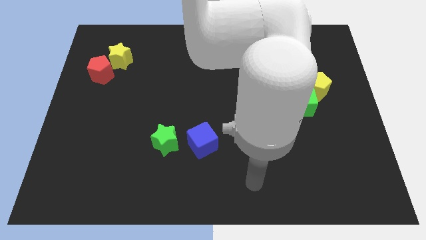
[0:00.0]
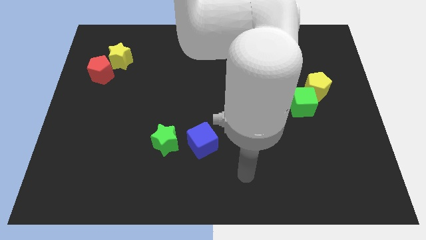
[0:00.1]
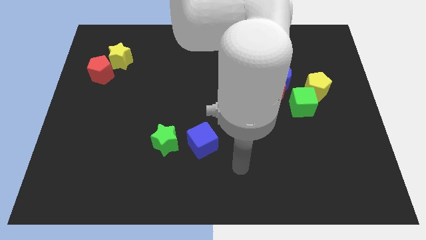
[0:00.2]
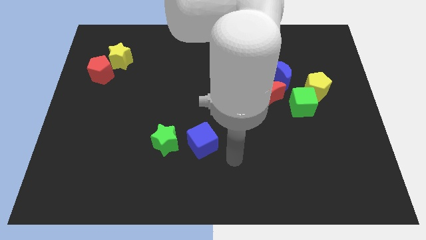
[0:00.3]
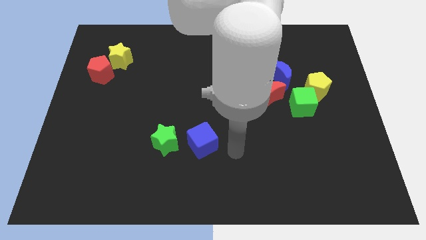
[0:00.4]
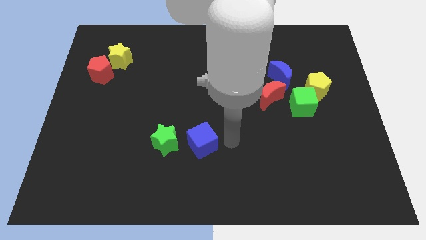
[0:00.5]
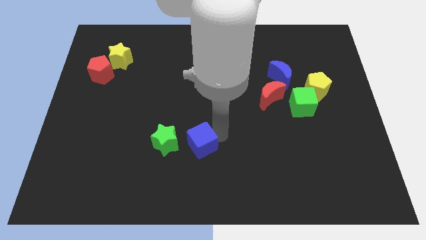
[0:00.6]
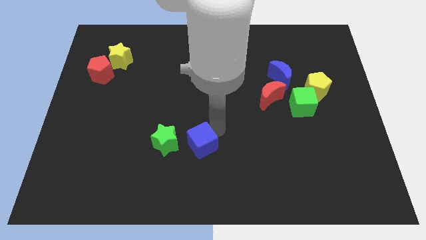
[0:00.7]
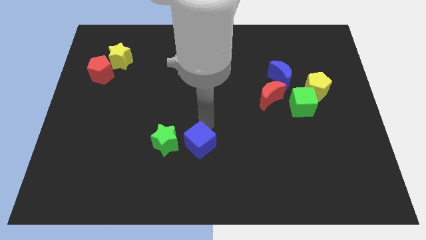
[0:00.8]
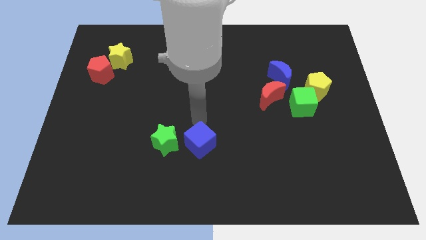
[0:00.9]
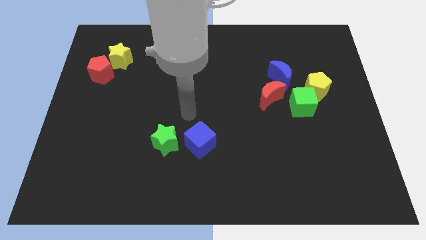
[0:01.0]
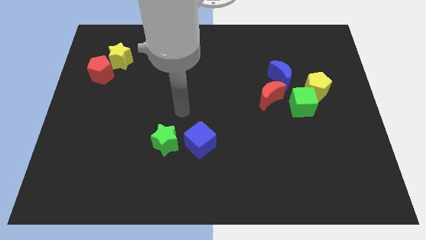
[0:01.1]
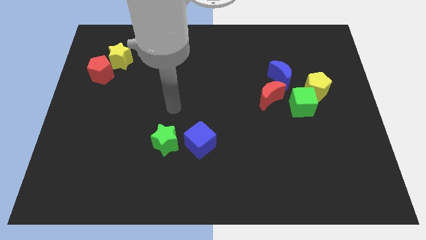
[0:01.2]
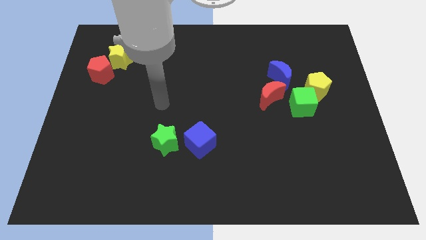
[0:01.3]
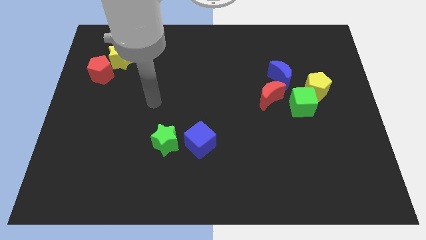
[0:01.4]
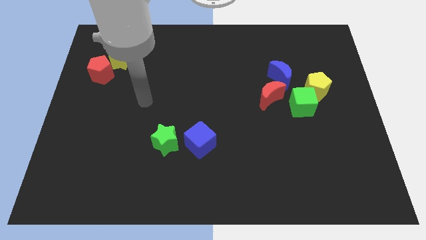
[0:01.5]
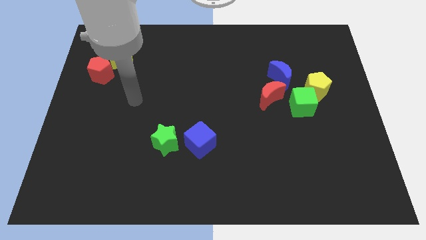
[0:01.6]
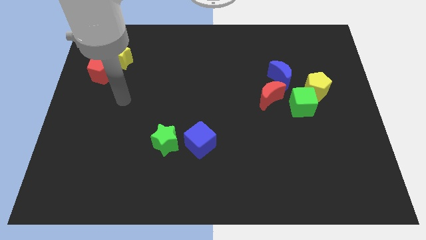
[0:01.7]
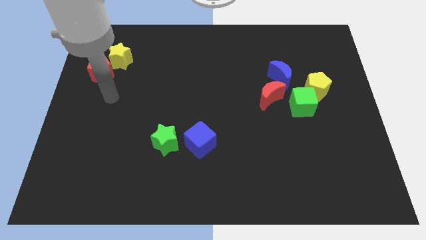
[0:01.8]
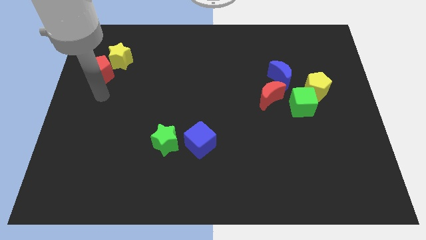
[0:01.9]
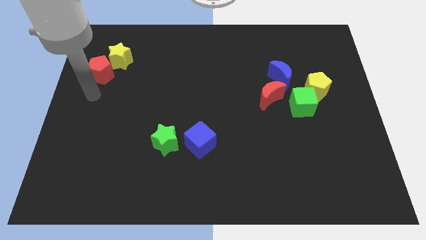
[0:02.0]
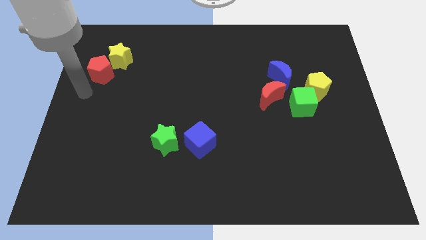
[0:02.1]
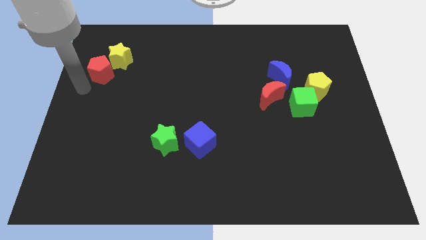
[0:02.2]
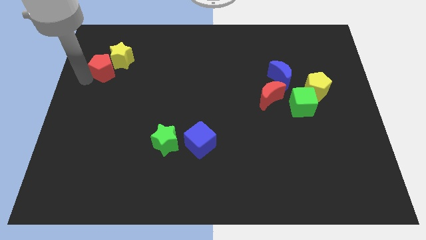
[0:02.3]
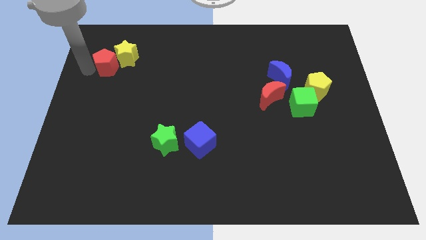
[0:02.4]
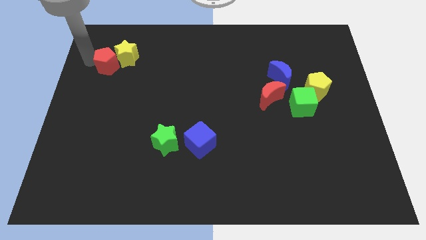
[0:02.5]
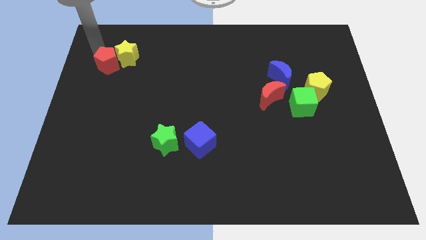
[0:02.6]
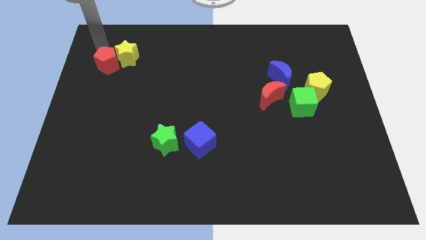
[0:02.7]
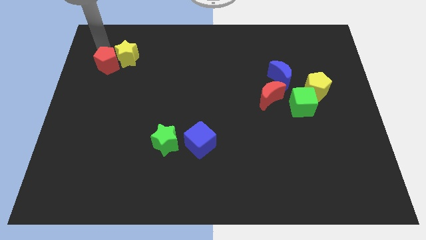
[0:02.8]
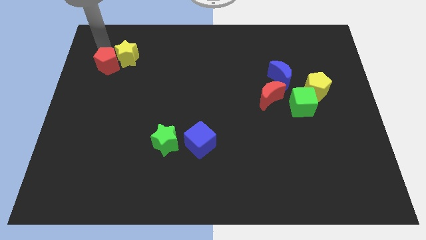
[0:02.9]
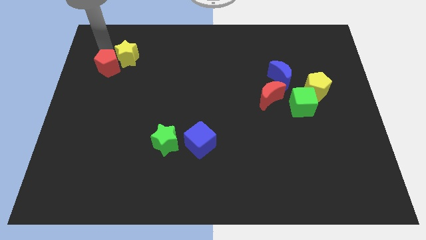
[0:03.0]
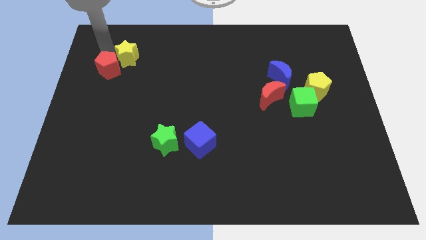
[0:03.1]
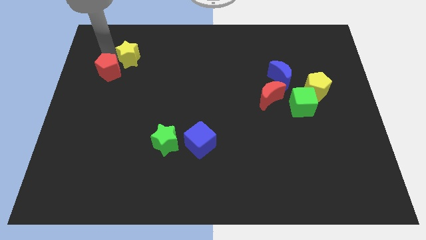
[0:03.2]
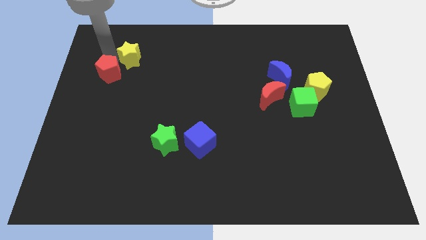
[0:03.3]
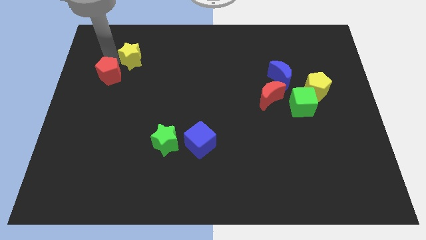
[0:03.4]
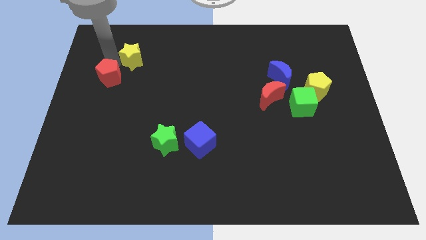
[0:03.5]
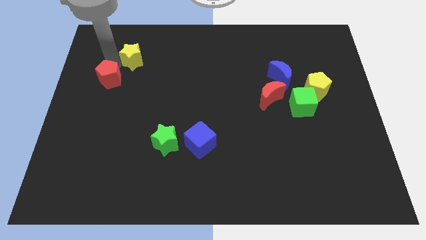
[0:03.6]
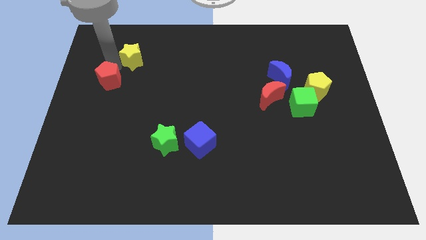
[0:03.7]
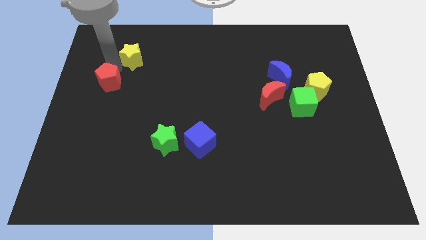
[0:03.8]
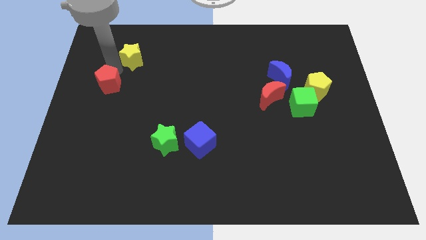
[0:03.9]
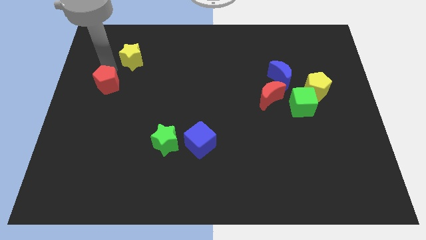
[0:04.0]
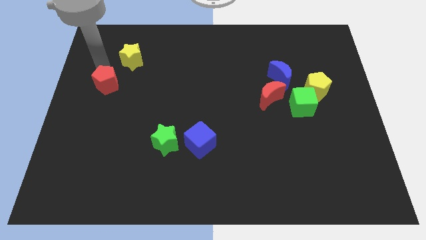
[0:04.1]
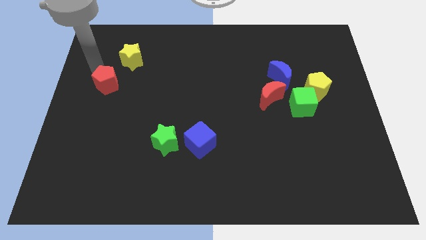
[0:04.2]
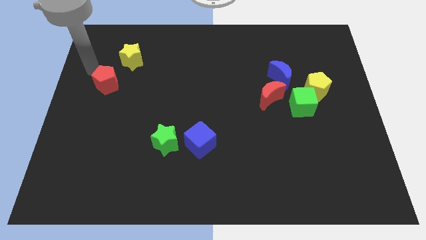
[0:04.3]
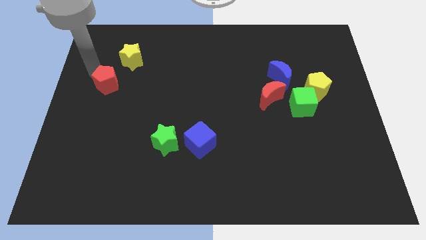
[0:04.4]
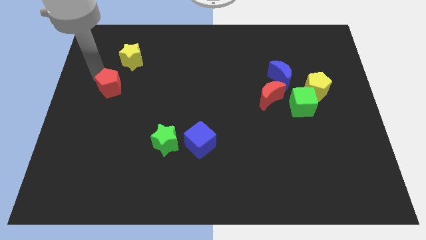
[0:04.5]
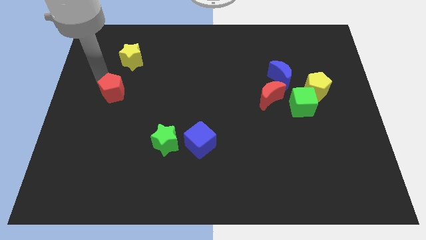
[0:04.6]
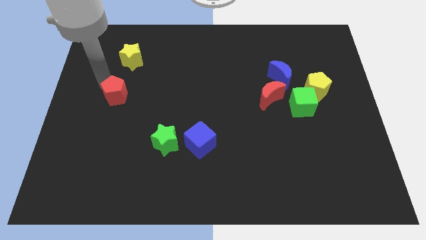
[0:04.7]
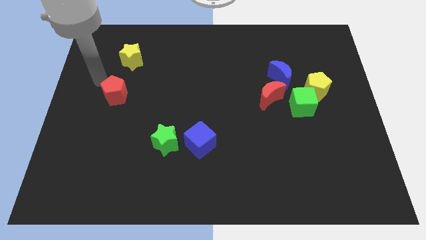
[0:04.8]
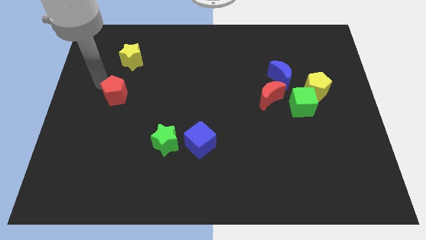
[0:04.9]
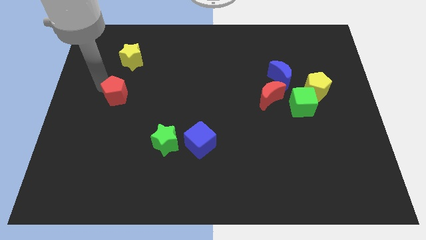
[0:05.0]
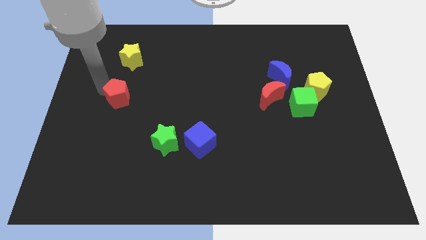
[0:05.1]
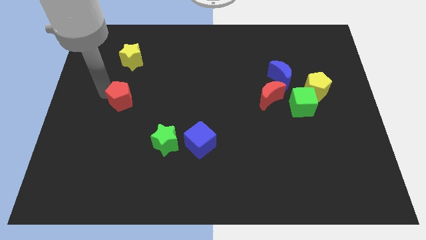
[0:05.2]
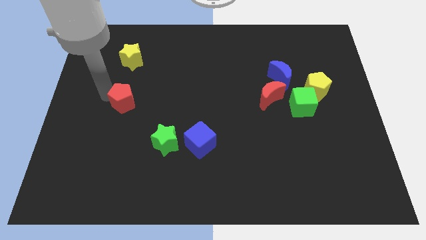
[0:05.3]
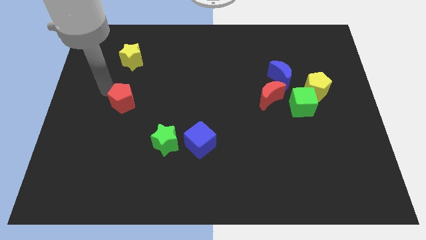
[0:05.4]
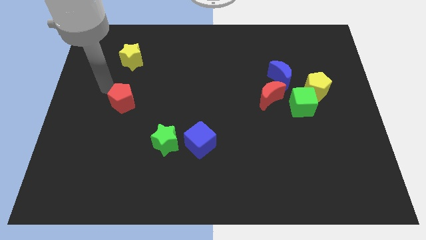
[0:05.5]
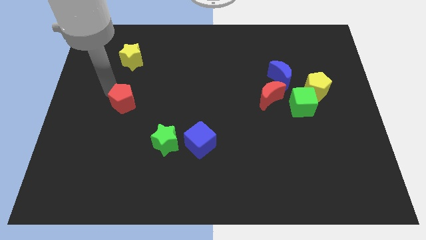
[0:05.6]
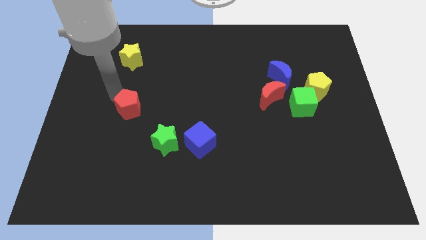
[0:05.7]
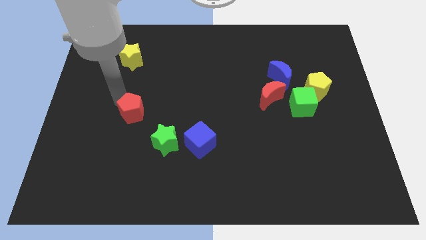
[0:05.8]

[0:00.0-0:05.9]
move the red pentagon to the top left of the green star

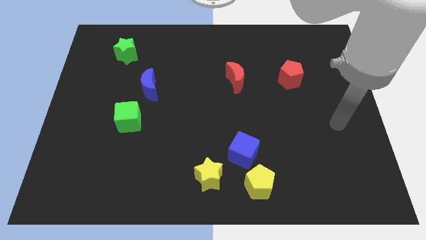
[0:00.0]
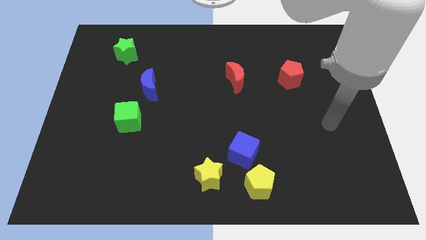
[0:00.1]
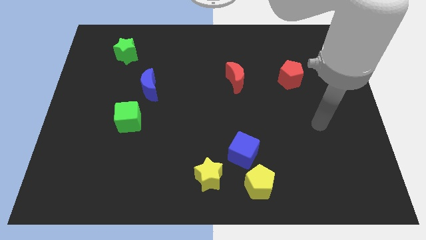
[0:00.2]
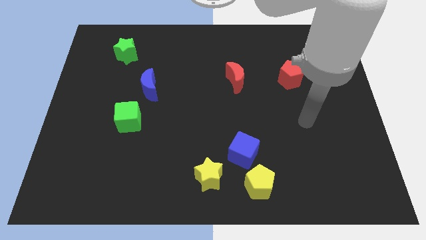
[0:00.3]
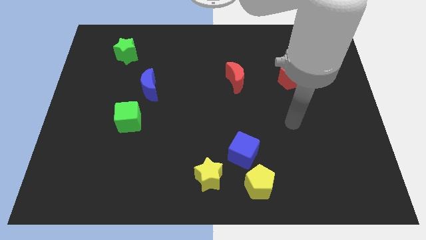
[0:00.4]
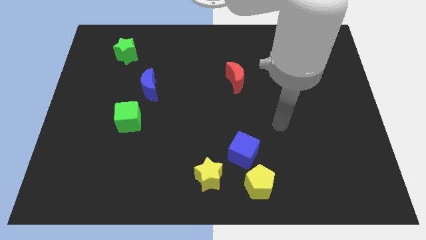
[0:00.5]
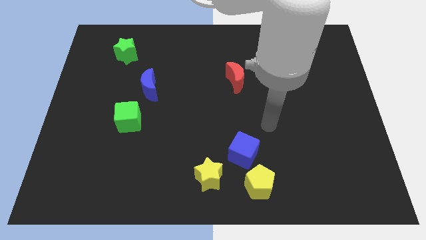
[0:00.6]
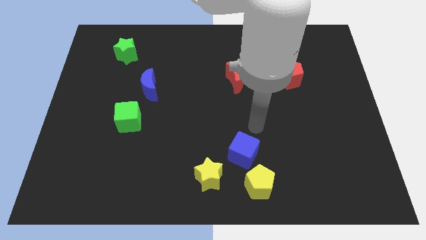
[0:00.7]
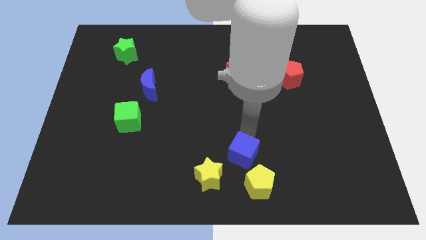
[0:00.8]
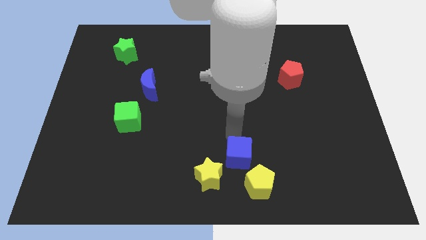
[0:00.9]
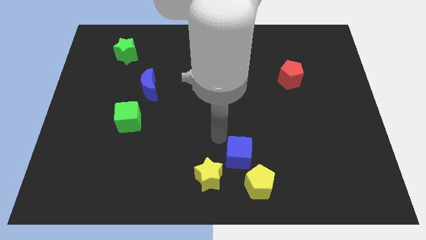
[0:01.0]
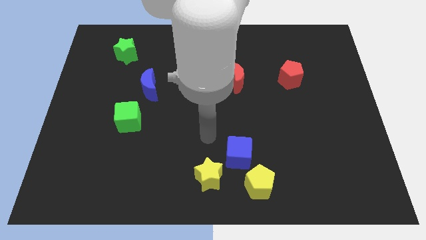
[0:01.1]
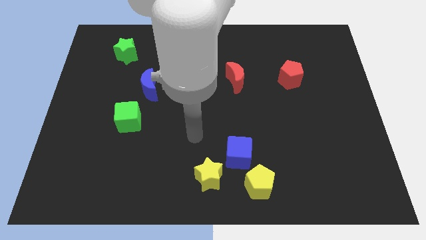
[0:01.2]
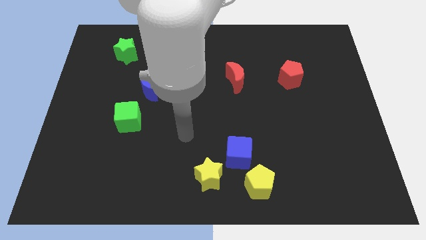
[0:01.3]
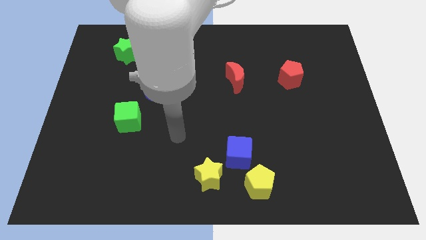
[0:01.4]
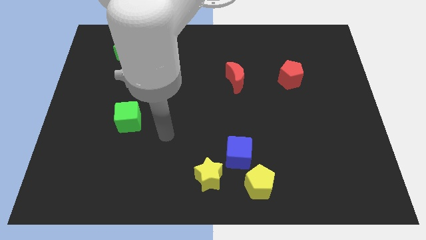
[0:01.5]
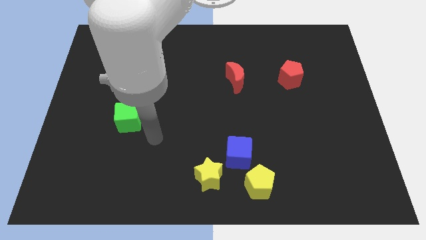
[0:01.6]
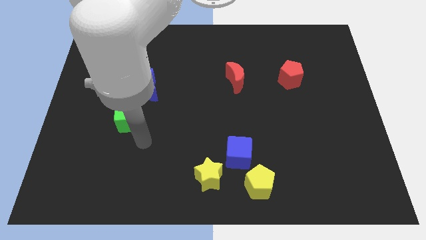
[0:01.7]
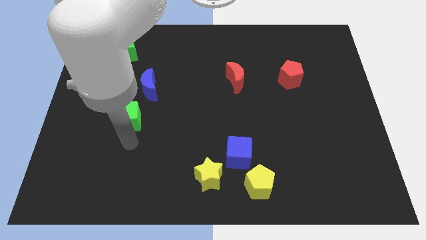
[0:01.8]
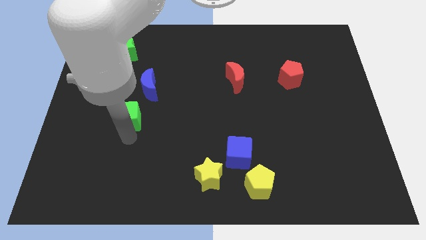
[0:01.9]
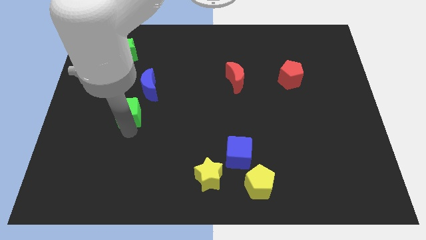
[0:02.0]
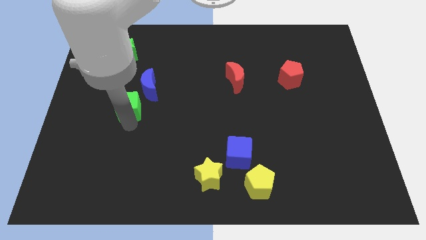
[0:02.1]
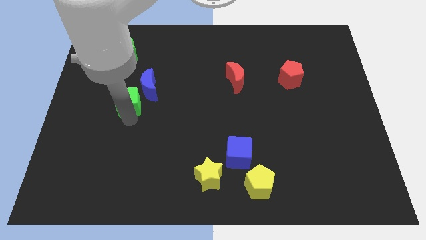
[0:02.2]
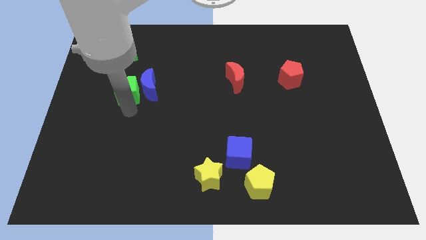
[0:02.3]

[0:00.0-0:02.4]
put the green cube to the top left of the blue moon
